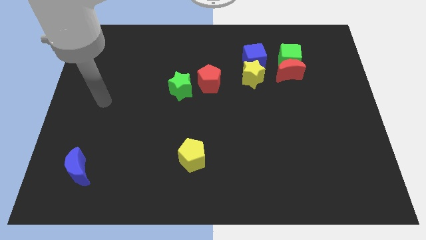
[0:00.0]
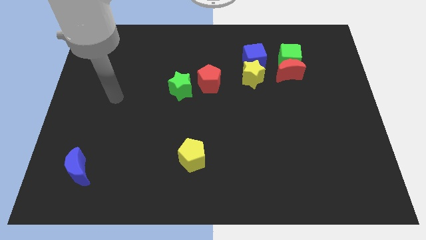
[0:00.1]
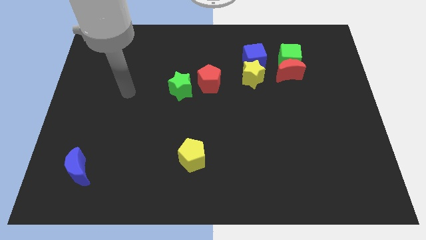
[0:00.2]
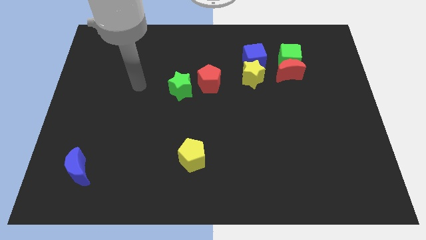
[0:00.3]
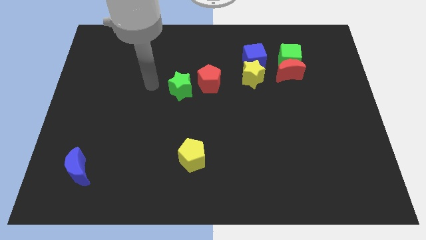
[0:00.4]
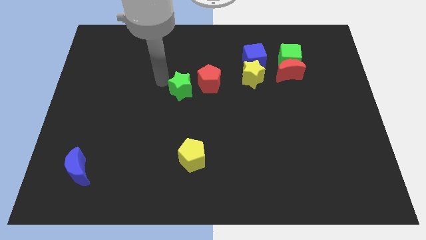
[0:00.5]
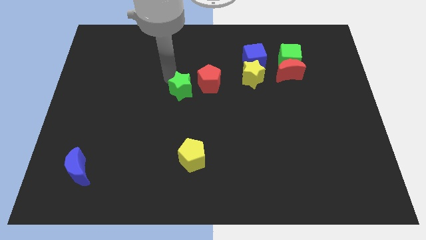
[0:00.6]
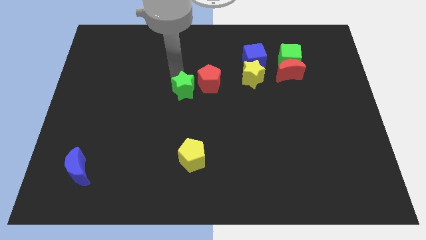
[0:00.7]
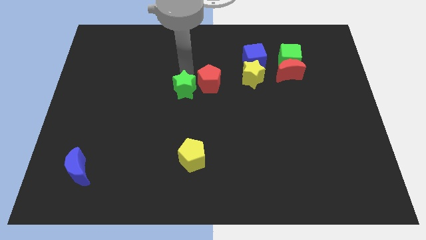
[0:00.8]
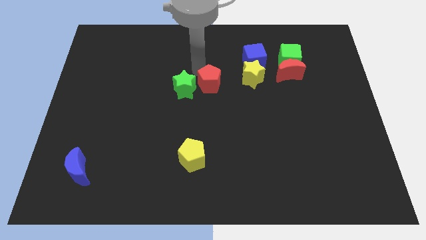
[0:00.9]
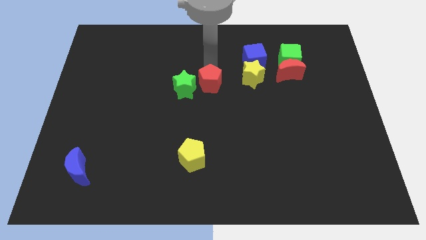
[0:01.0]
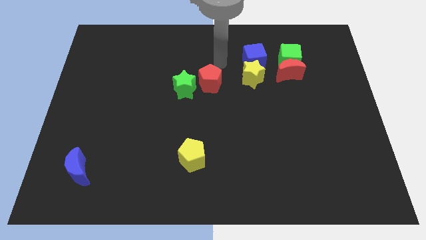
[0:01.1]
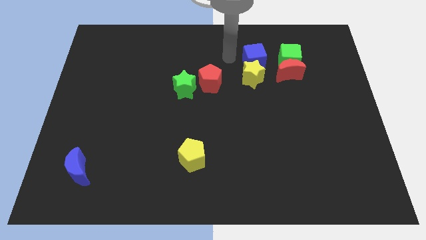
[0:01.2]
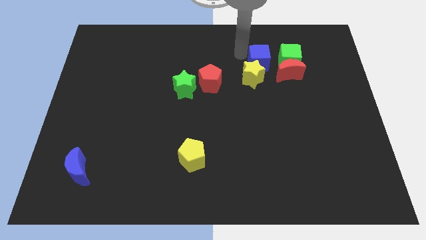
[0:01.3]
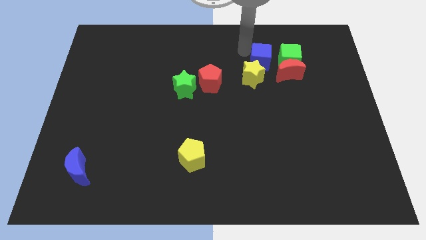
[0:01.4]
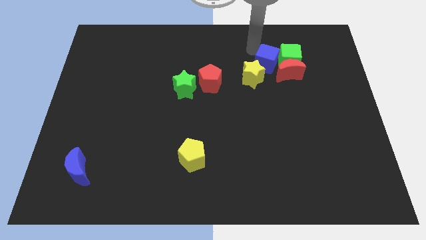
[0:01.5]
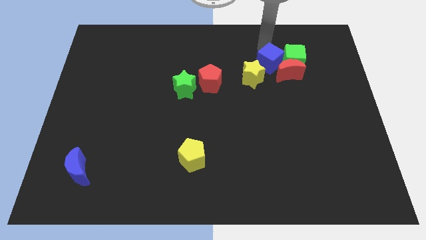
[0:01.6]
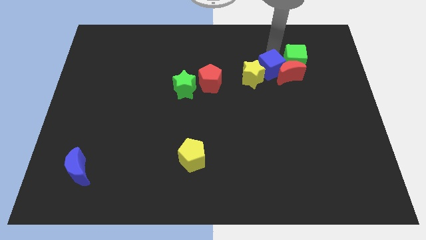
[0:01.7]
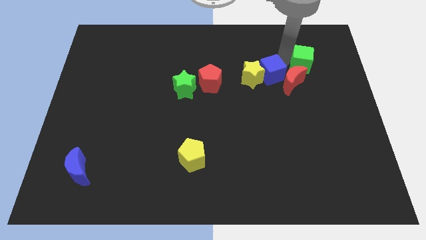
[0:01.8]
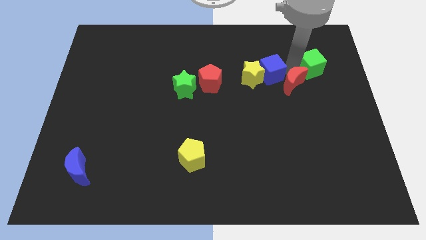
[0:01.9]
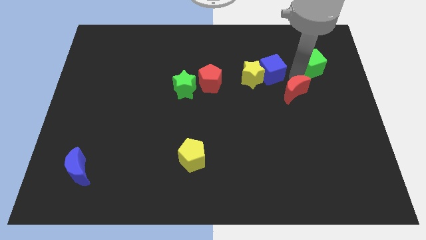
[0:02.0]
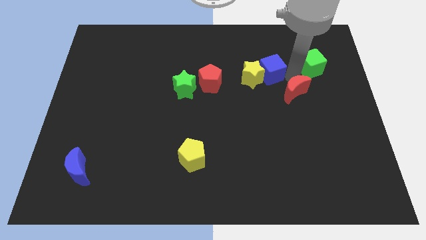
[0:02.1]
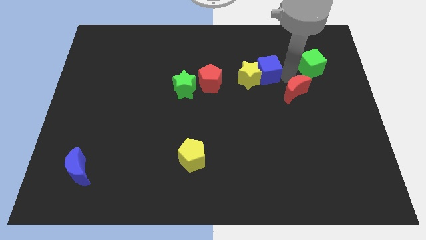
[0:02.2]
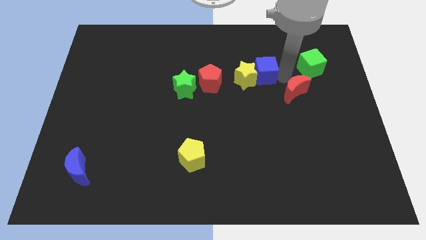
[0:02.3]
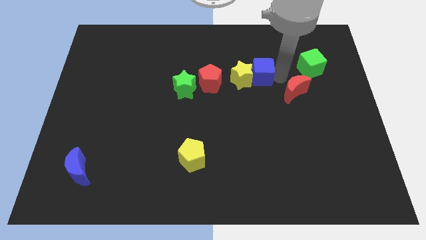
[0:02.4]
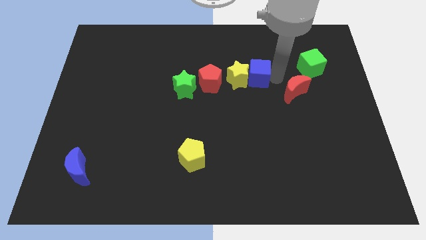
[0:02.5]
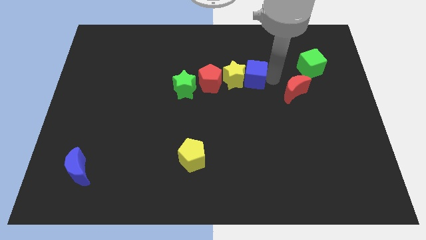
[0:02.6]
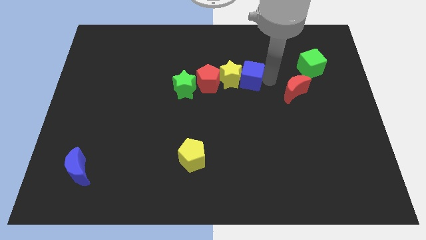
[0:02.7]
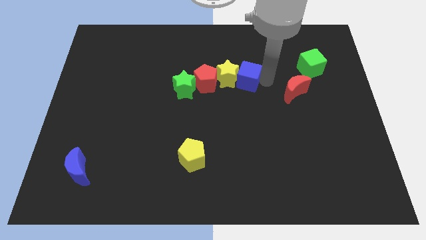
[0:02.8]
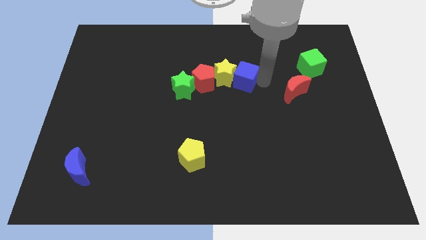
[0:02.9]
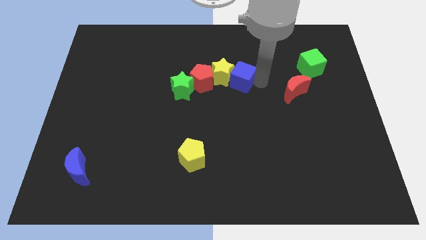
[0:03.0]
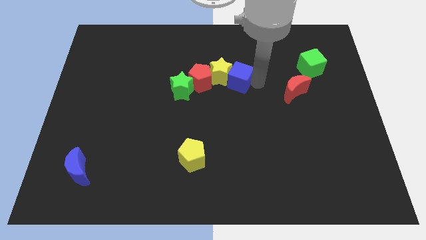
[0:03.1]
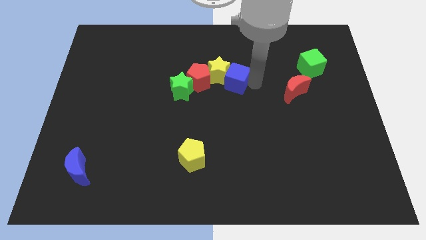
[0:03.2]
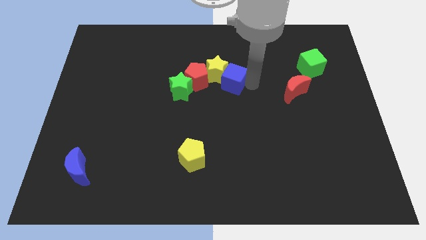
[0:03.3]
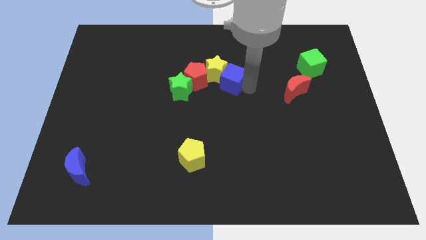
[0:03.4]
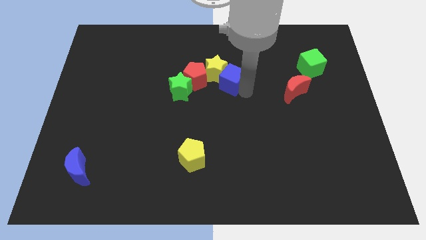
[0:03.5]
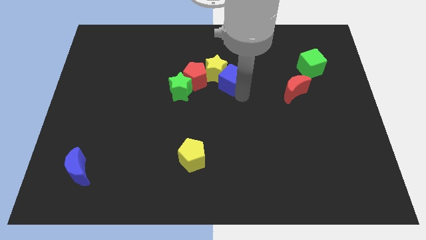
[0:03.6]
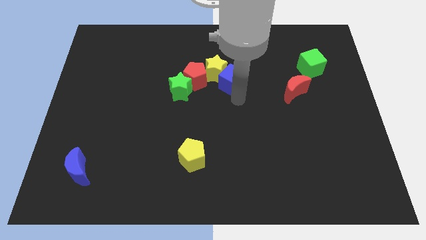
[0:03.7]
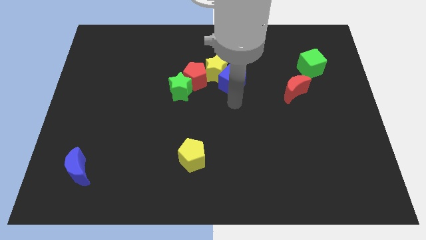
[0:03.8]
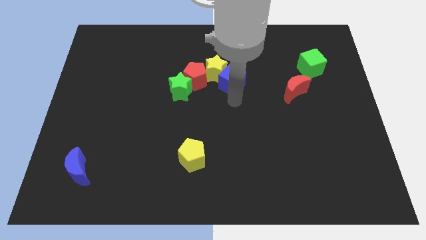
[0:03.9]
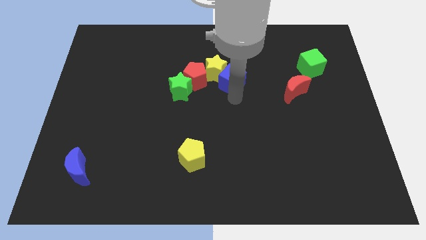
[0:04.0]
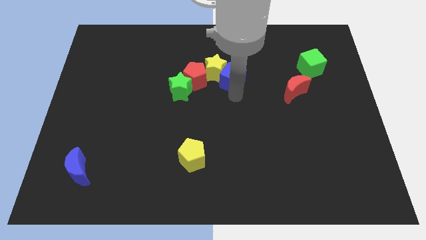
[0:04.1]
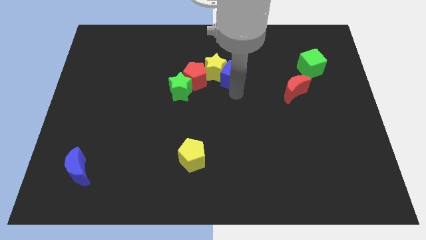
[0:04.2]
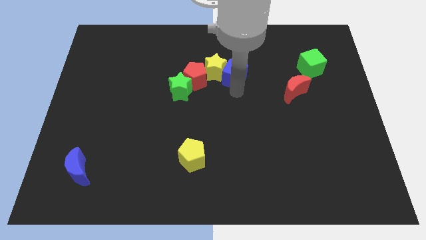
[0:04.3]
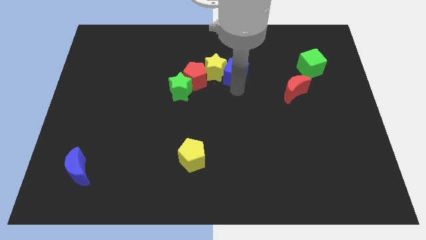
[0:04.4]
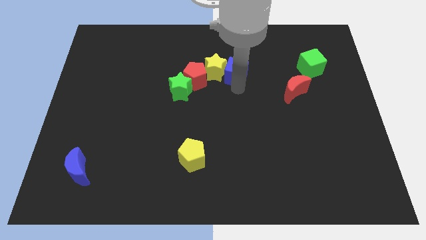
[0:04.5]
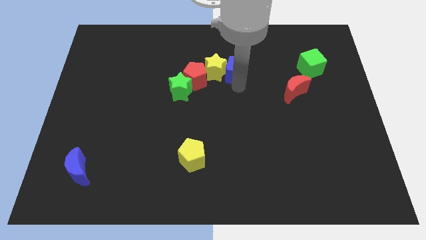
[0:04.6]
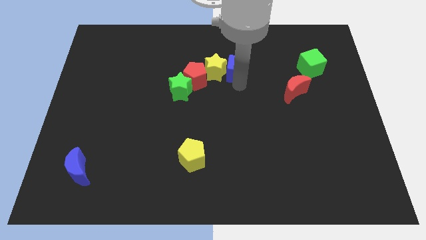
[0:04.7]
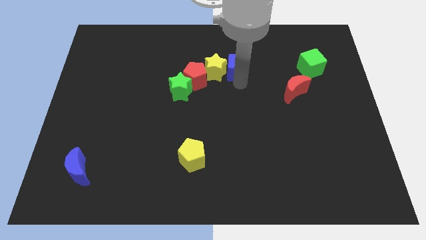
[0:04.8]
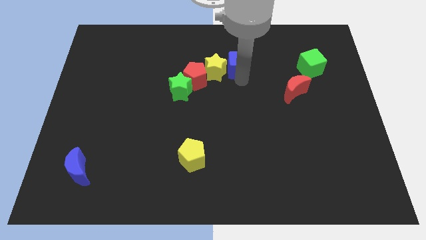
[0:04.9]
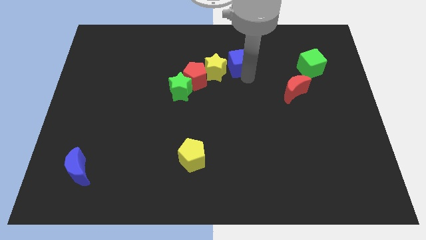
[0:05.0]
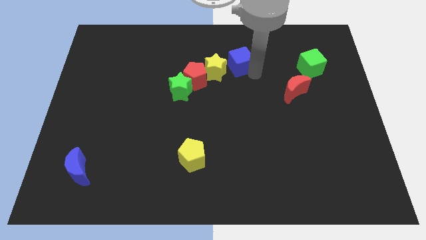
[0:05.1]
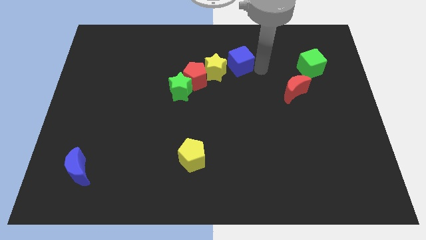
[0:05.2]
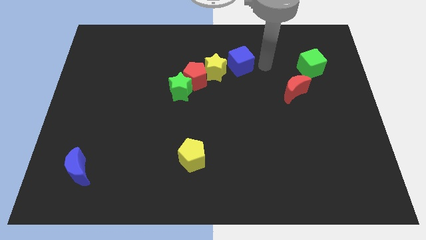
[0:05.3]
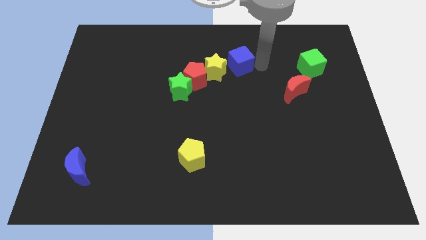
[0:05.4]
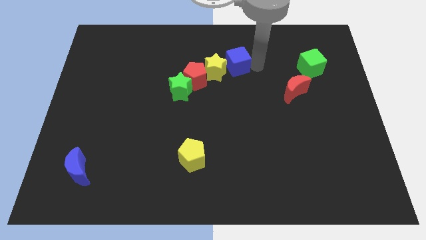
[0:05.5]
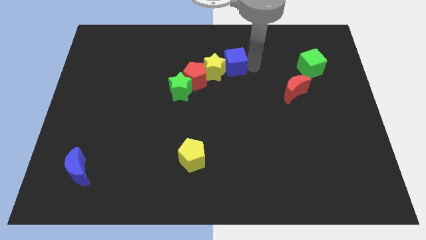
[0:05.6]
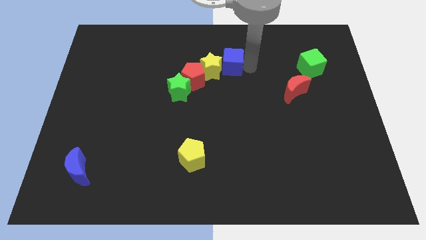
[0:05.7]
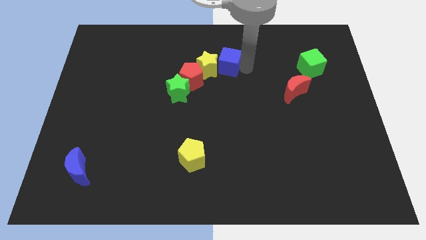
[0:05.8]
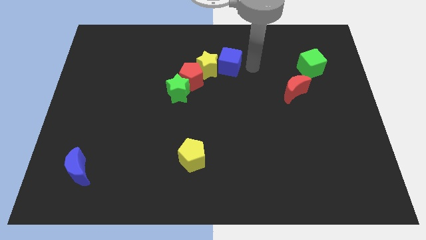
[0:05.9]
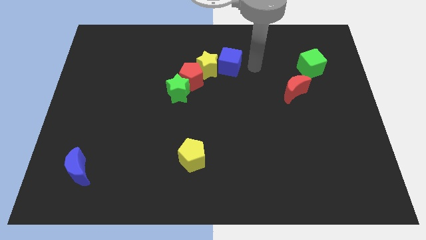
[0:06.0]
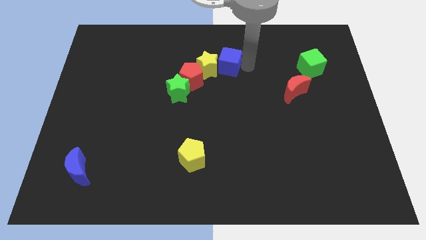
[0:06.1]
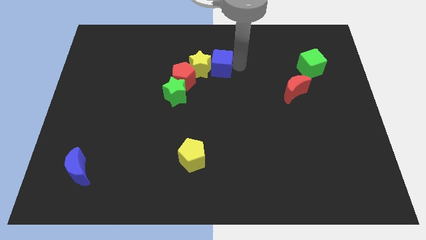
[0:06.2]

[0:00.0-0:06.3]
move the blue cube to the left a little

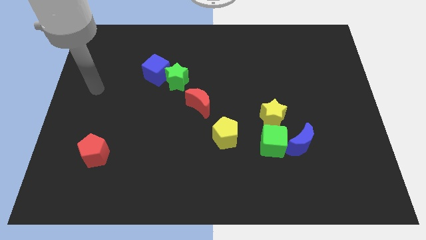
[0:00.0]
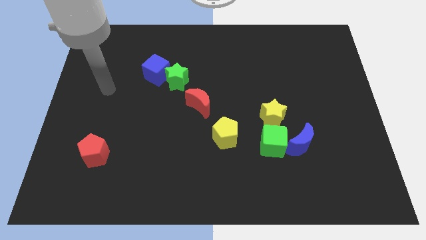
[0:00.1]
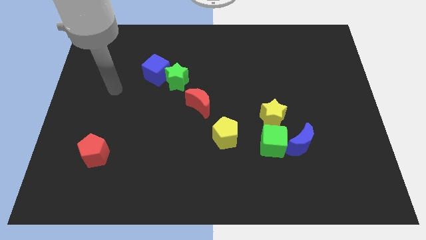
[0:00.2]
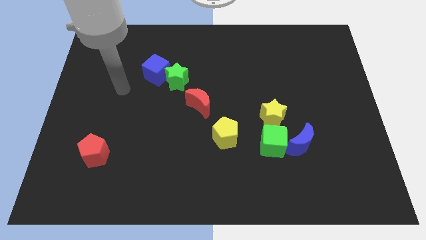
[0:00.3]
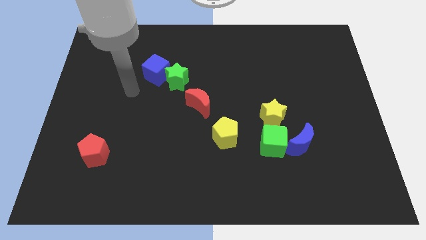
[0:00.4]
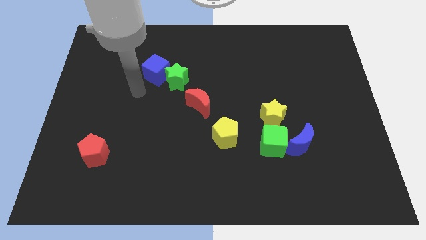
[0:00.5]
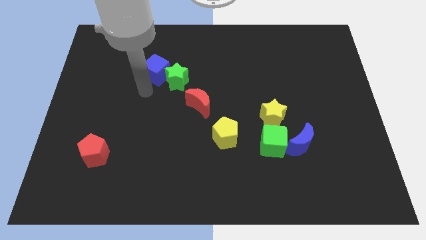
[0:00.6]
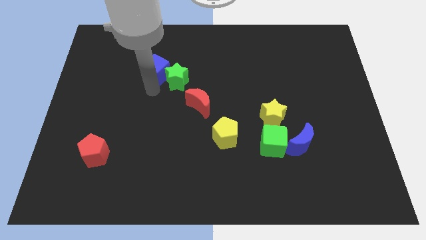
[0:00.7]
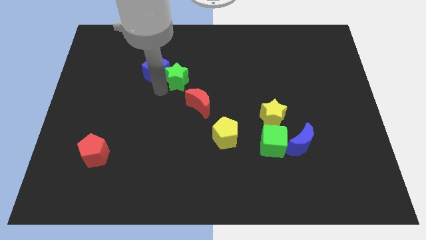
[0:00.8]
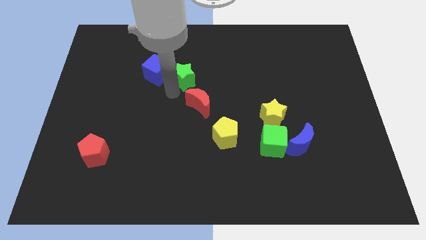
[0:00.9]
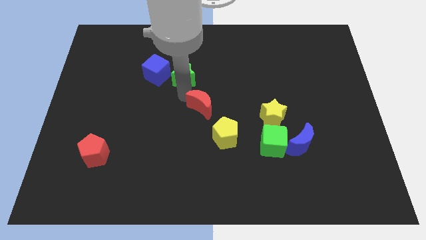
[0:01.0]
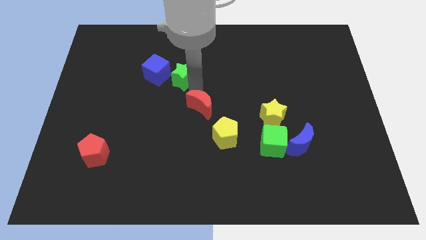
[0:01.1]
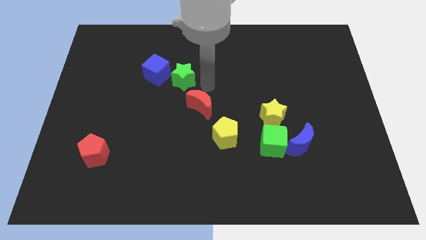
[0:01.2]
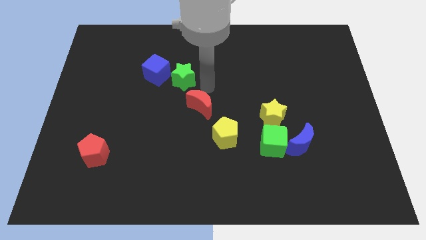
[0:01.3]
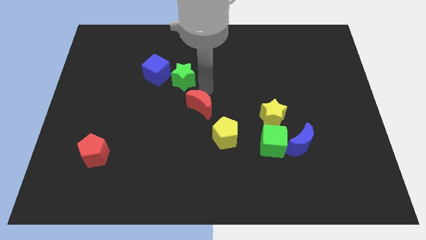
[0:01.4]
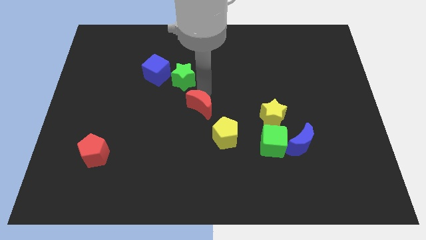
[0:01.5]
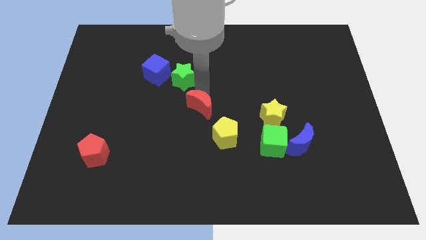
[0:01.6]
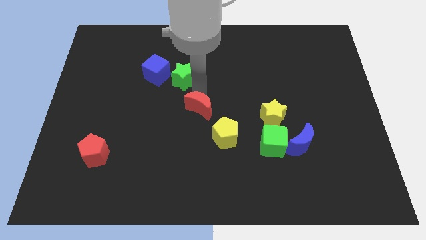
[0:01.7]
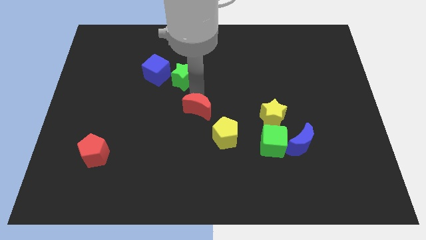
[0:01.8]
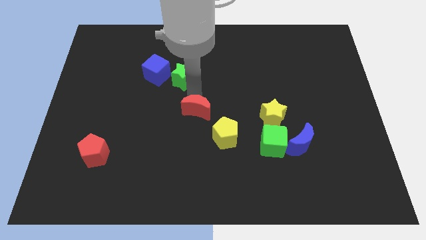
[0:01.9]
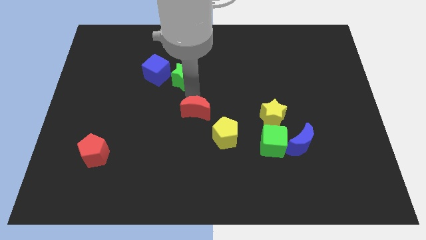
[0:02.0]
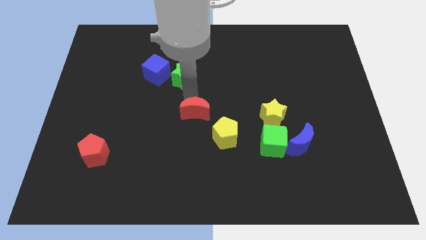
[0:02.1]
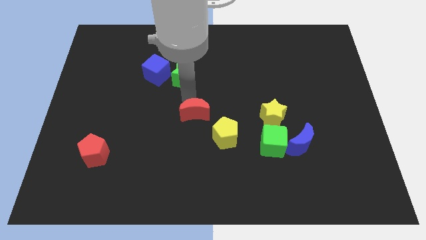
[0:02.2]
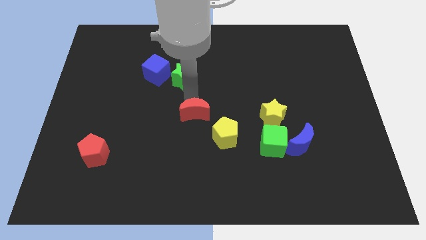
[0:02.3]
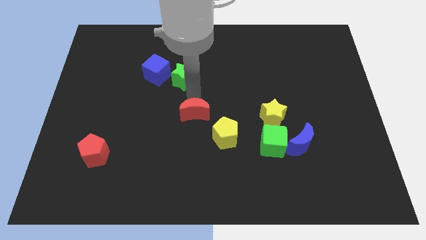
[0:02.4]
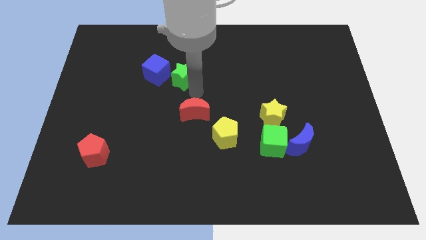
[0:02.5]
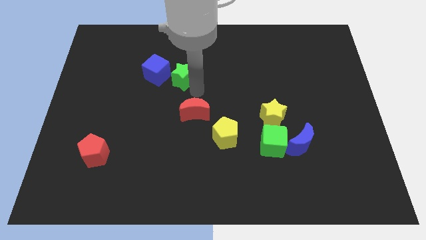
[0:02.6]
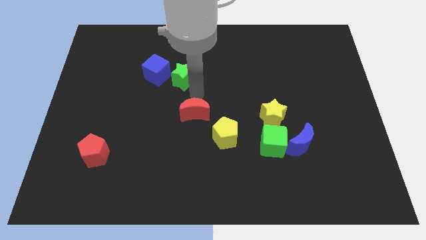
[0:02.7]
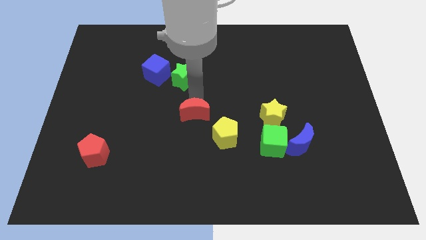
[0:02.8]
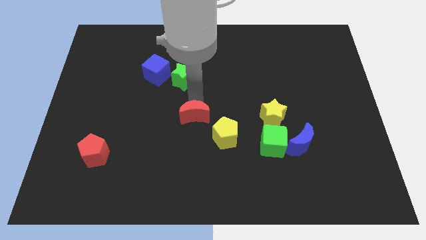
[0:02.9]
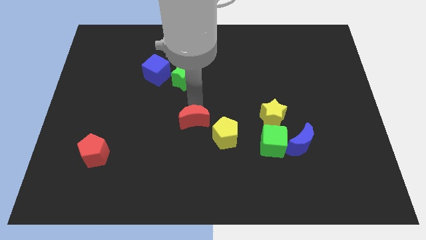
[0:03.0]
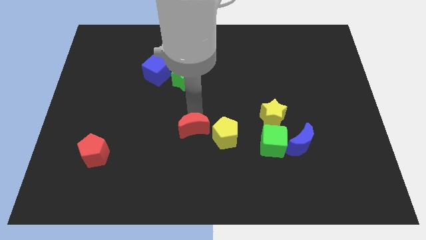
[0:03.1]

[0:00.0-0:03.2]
slide the red moon downwards a bit
